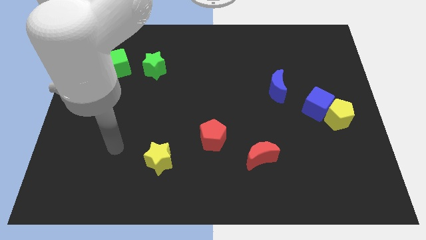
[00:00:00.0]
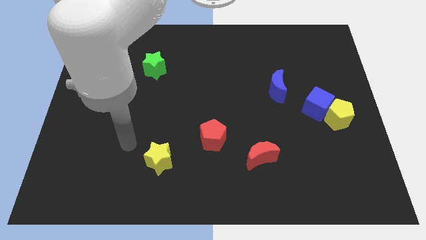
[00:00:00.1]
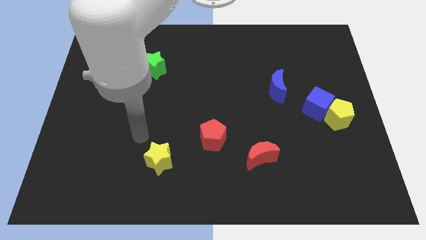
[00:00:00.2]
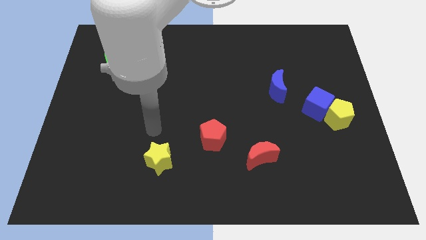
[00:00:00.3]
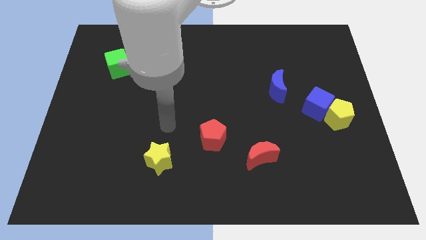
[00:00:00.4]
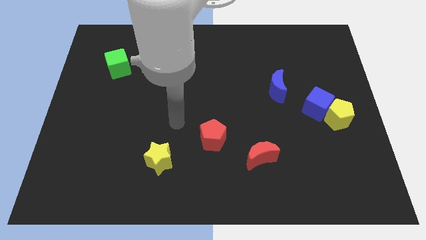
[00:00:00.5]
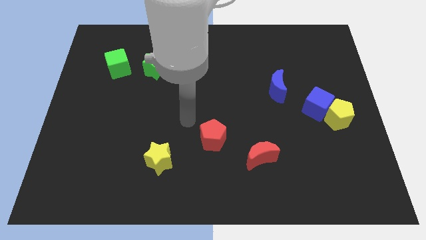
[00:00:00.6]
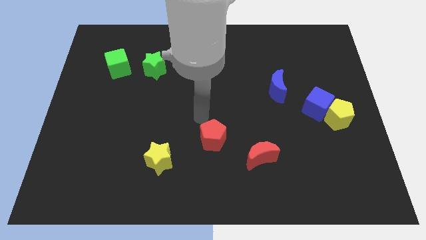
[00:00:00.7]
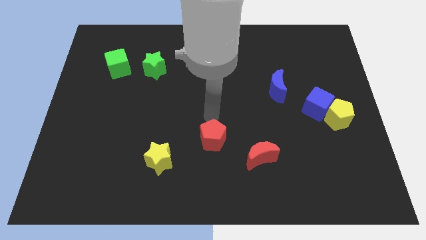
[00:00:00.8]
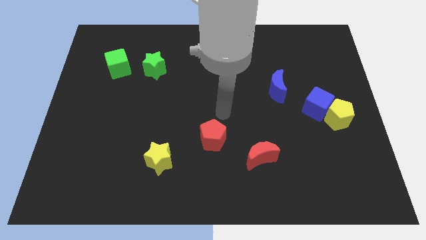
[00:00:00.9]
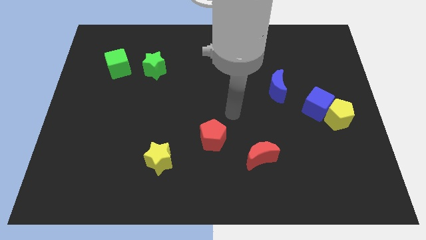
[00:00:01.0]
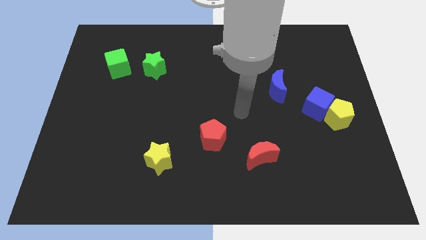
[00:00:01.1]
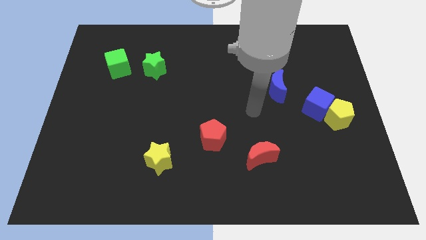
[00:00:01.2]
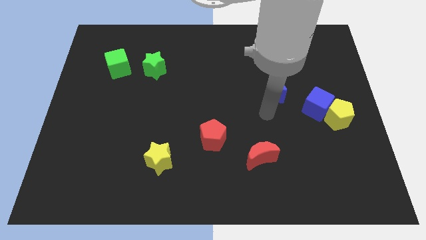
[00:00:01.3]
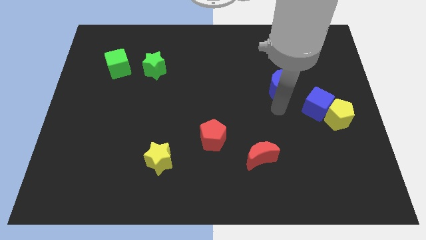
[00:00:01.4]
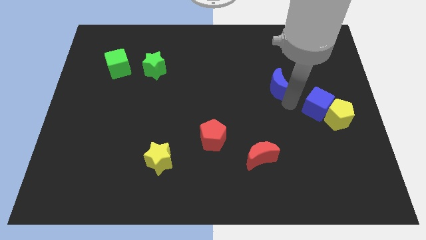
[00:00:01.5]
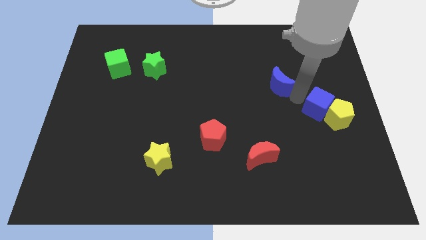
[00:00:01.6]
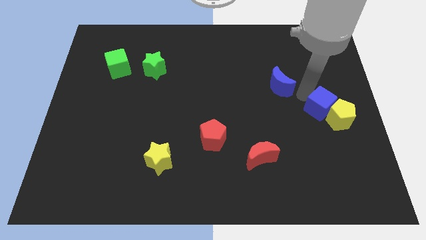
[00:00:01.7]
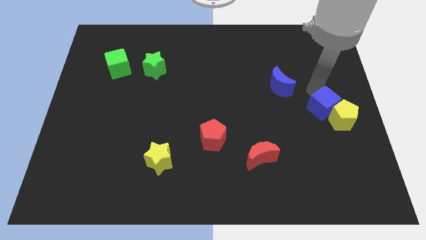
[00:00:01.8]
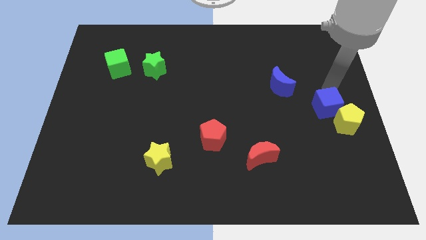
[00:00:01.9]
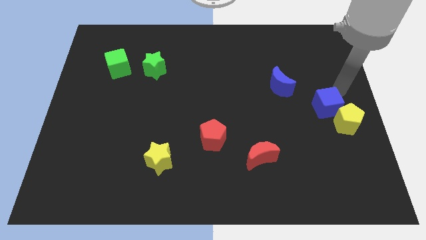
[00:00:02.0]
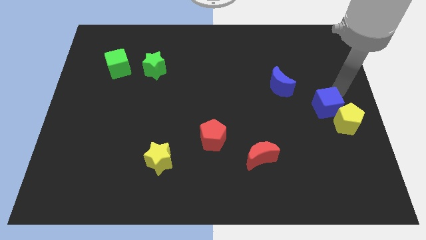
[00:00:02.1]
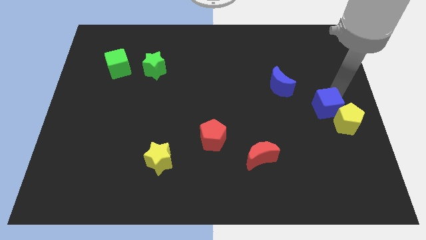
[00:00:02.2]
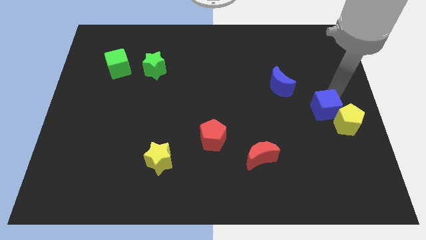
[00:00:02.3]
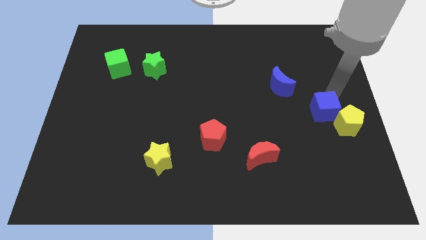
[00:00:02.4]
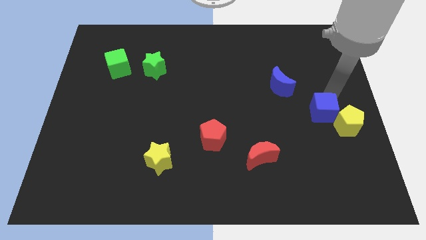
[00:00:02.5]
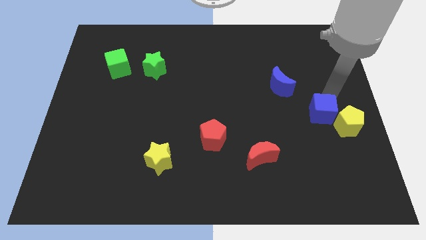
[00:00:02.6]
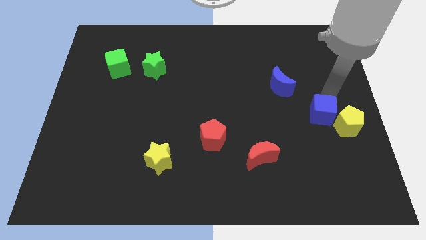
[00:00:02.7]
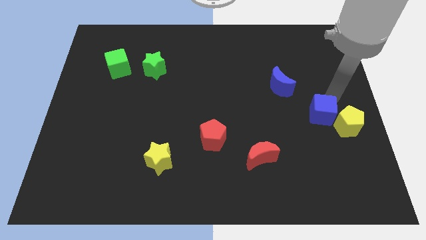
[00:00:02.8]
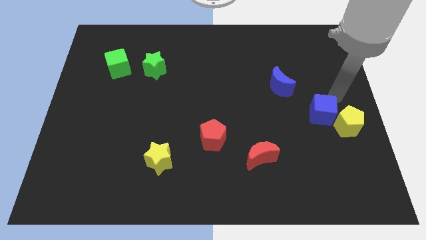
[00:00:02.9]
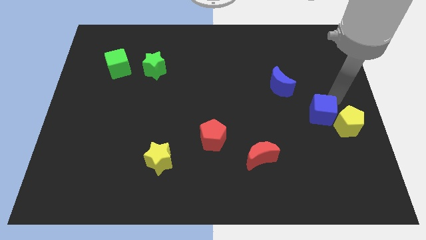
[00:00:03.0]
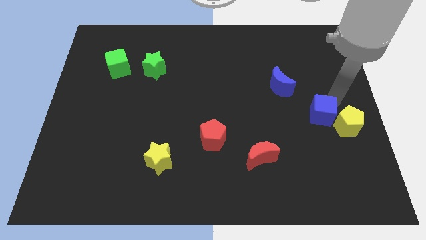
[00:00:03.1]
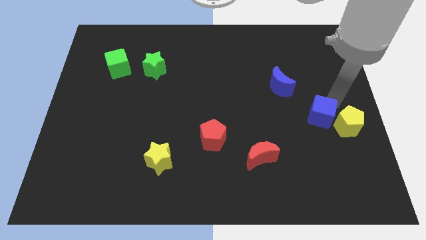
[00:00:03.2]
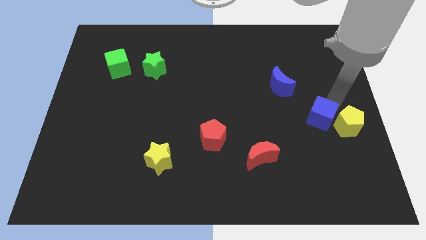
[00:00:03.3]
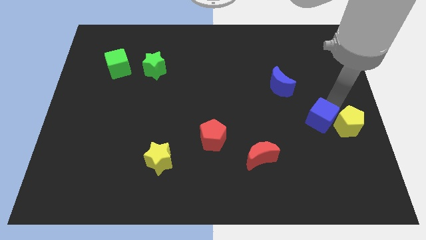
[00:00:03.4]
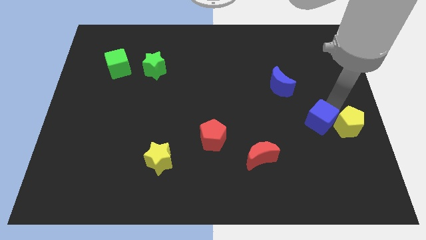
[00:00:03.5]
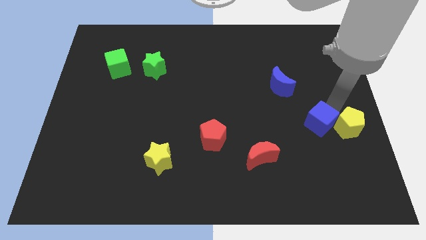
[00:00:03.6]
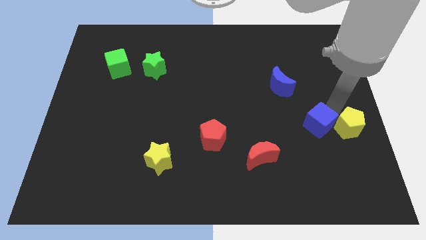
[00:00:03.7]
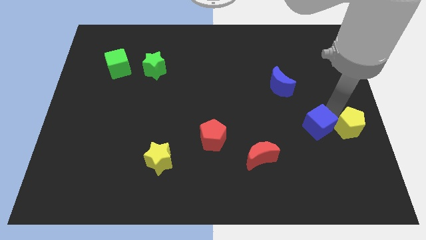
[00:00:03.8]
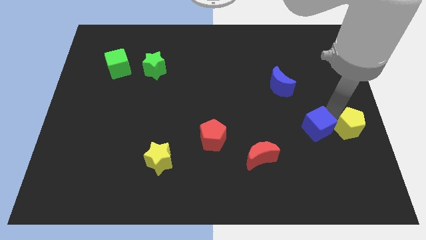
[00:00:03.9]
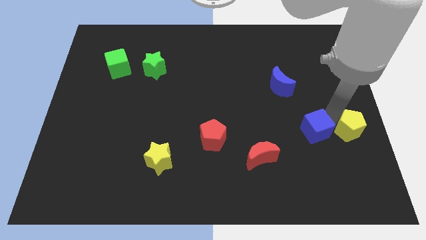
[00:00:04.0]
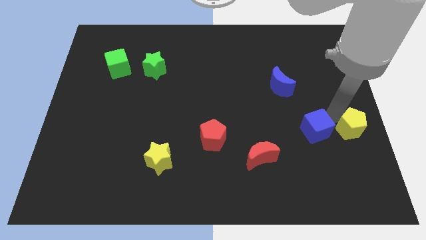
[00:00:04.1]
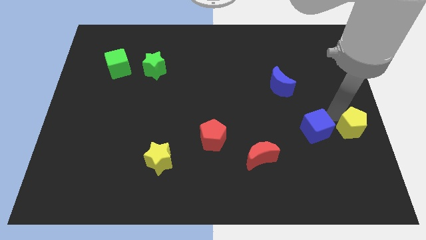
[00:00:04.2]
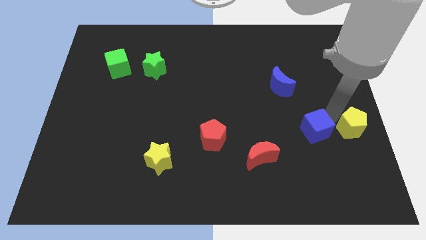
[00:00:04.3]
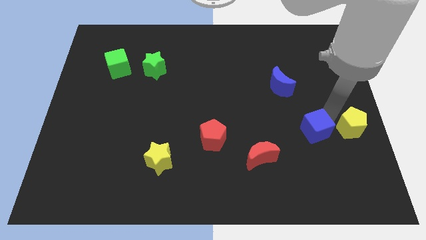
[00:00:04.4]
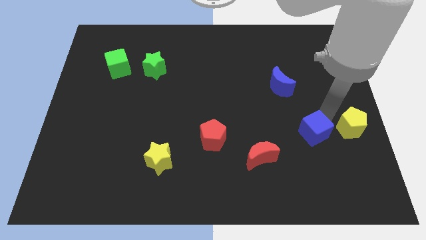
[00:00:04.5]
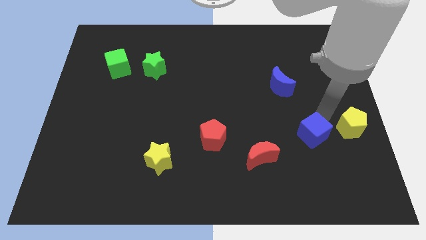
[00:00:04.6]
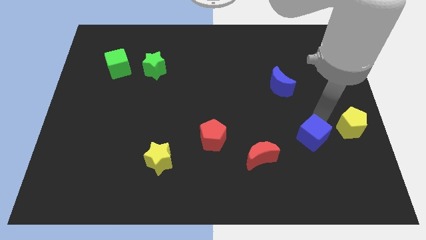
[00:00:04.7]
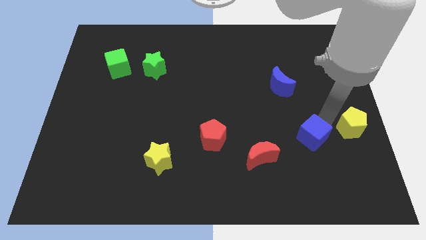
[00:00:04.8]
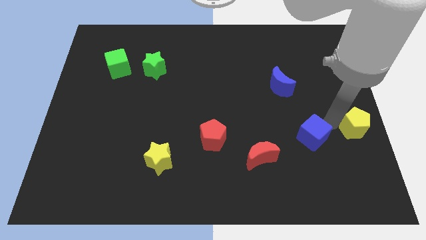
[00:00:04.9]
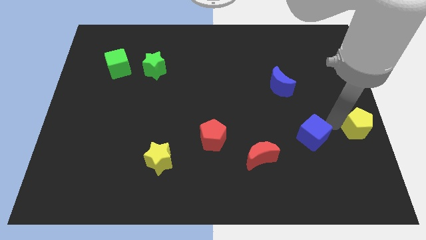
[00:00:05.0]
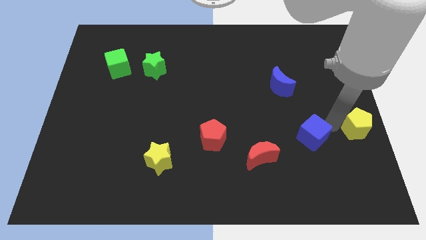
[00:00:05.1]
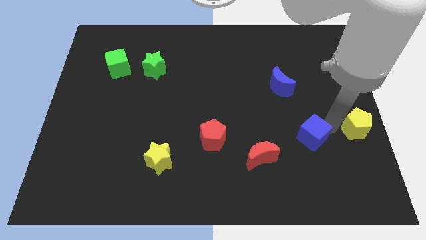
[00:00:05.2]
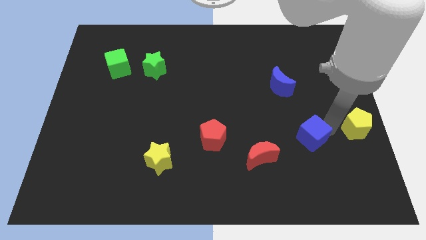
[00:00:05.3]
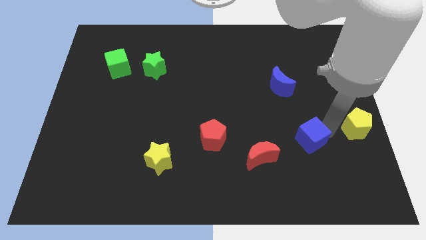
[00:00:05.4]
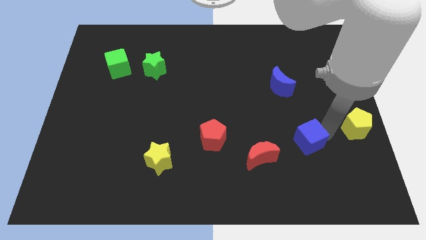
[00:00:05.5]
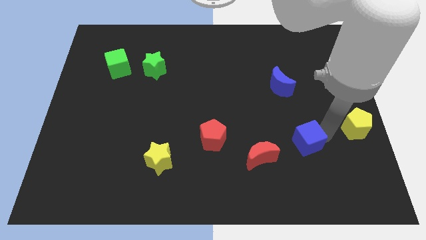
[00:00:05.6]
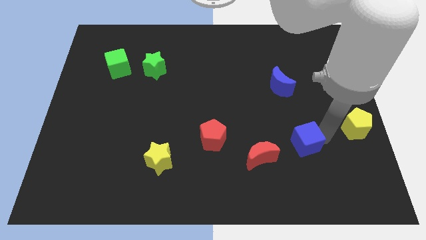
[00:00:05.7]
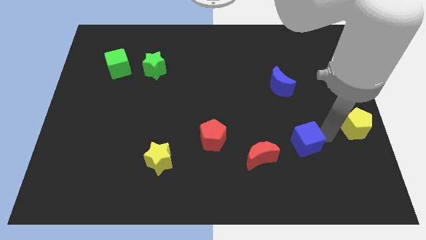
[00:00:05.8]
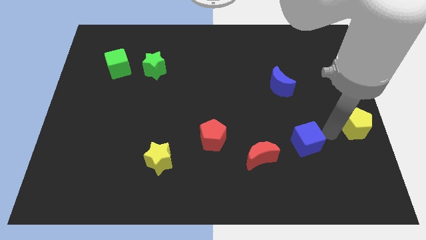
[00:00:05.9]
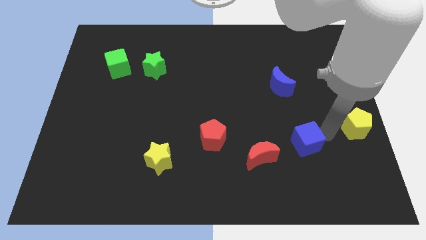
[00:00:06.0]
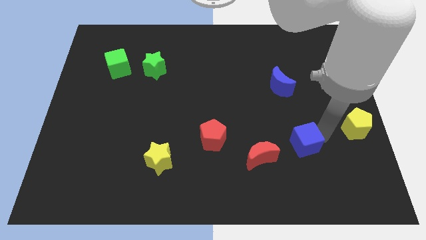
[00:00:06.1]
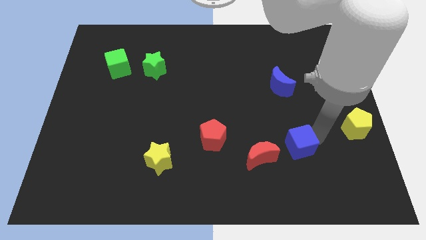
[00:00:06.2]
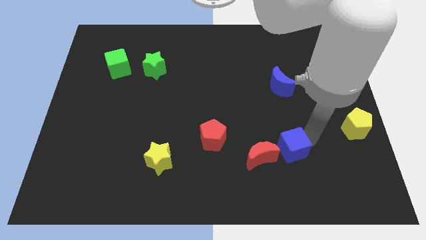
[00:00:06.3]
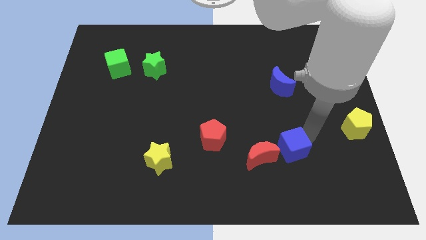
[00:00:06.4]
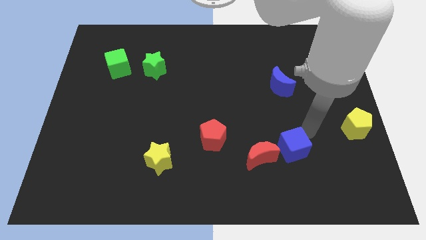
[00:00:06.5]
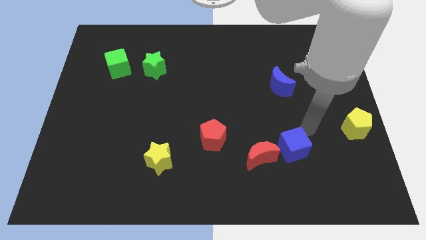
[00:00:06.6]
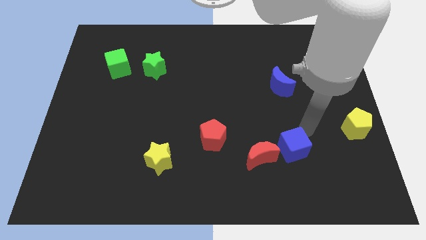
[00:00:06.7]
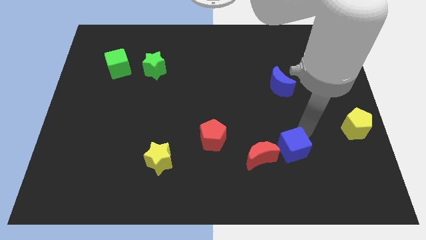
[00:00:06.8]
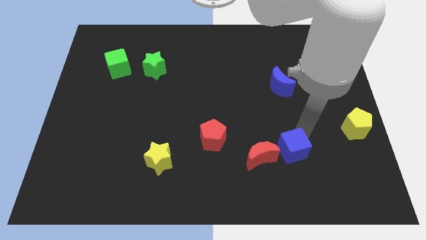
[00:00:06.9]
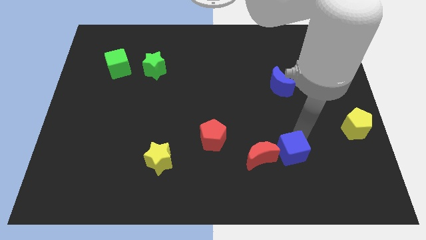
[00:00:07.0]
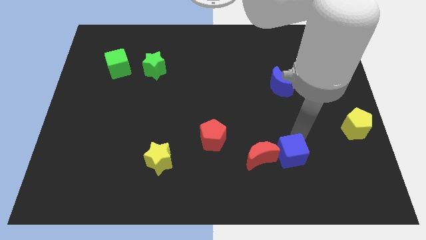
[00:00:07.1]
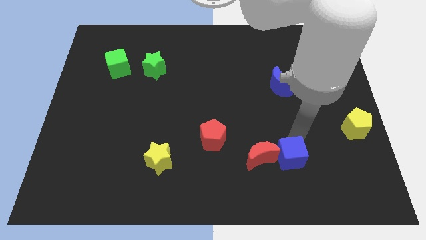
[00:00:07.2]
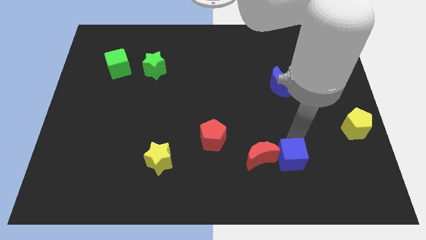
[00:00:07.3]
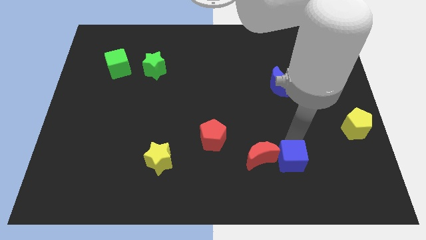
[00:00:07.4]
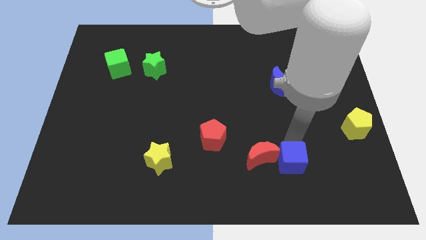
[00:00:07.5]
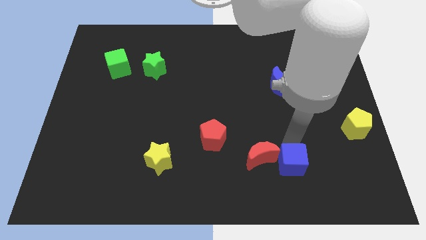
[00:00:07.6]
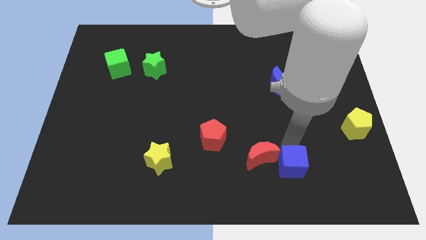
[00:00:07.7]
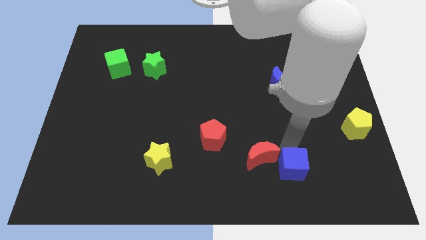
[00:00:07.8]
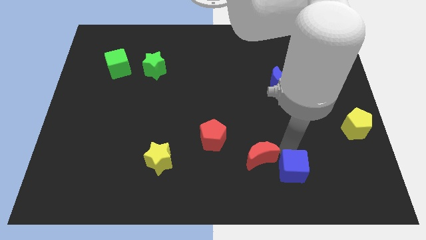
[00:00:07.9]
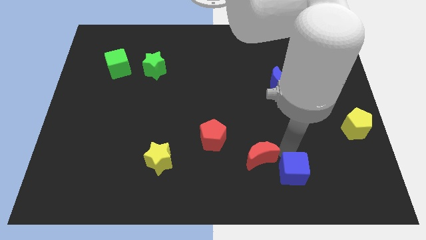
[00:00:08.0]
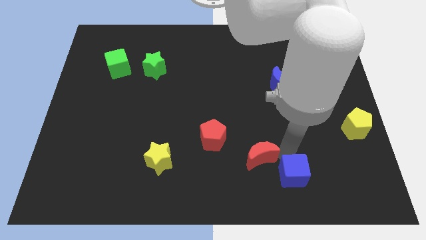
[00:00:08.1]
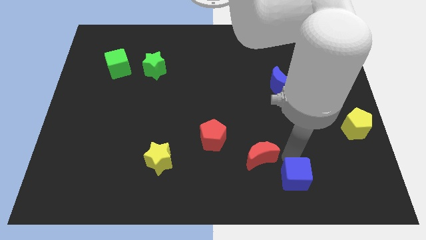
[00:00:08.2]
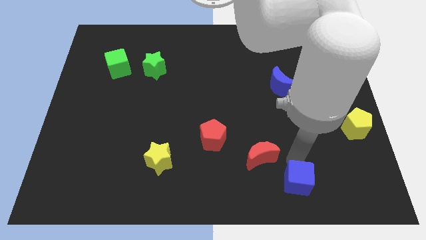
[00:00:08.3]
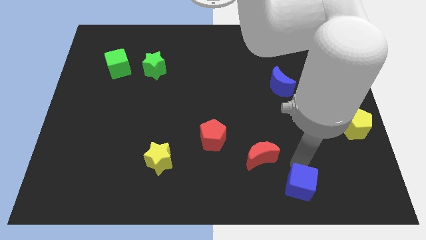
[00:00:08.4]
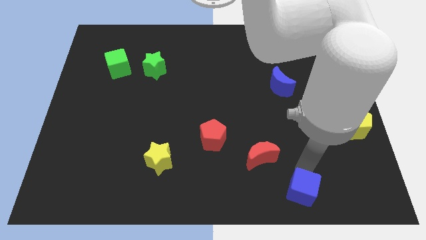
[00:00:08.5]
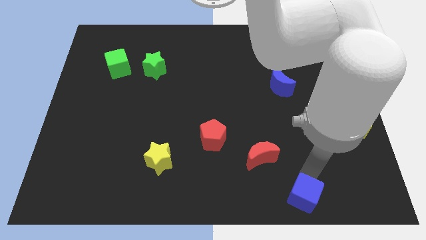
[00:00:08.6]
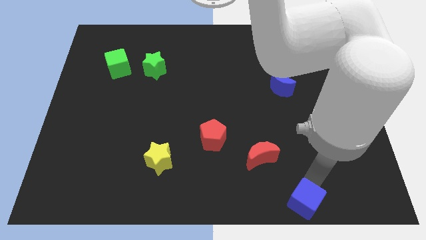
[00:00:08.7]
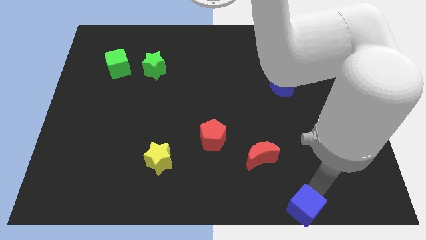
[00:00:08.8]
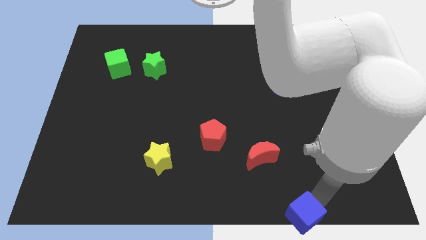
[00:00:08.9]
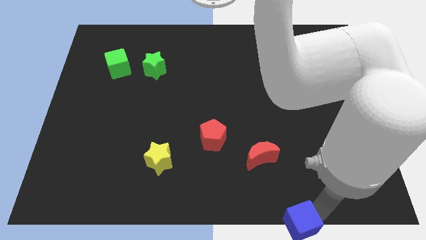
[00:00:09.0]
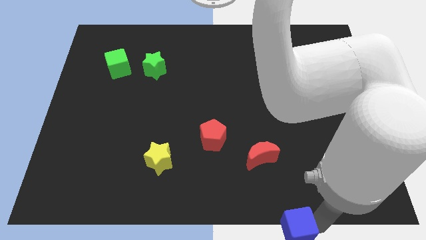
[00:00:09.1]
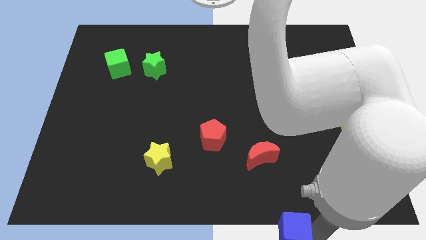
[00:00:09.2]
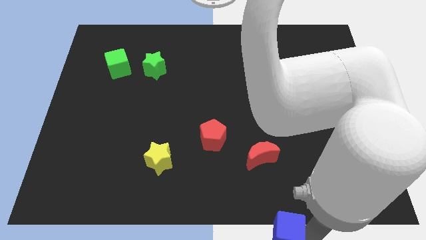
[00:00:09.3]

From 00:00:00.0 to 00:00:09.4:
push the blue cube to the bottom
